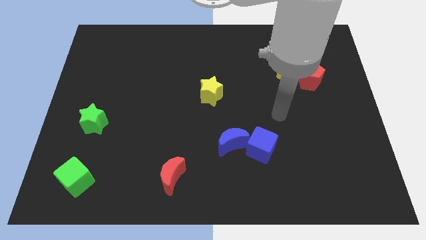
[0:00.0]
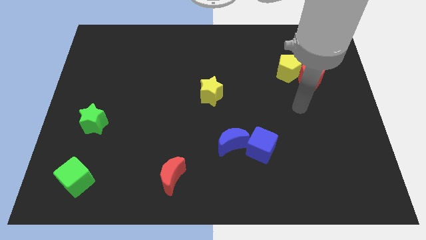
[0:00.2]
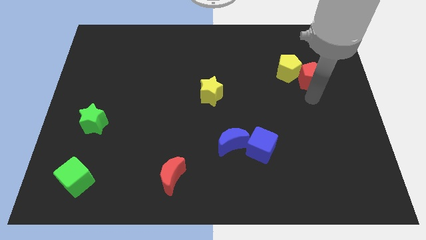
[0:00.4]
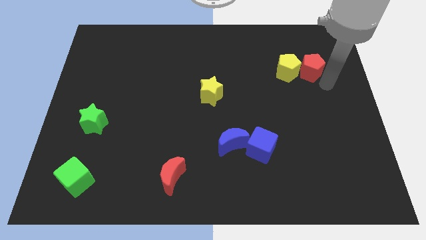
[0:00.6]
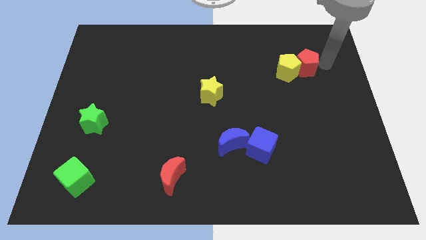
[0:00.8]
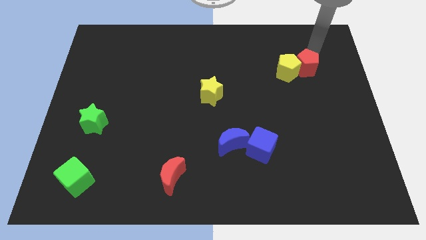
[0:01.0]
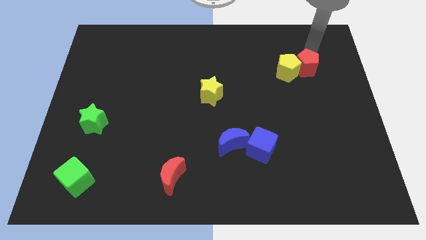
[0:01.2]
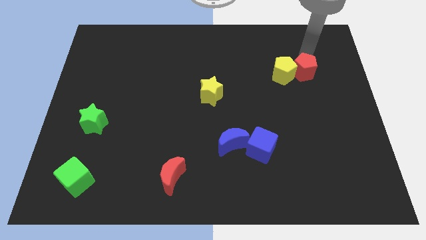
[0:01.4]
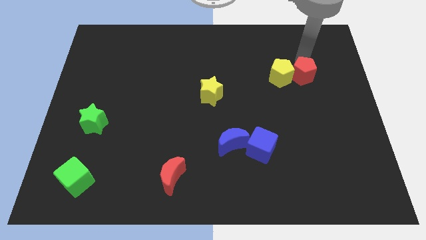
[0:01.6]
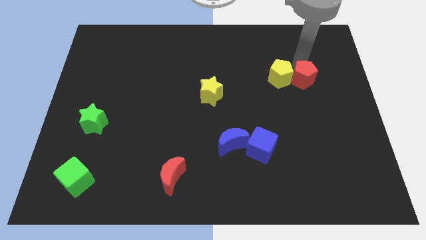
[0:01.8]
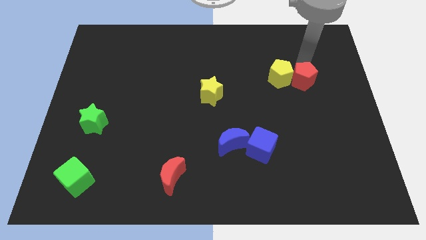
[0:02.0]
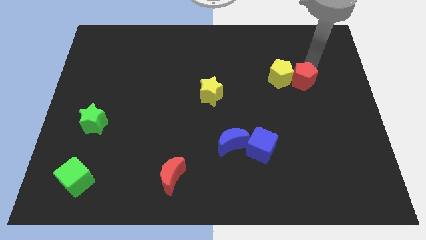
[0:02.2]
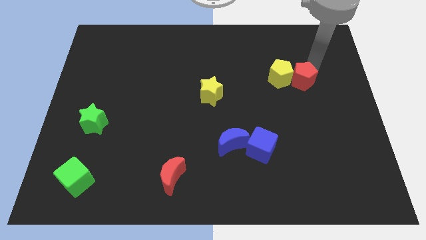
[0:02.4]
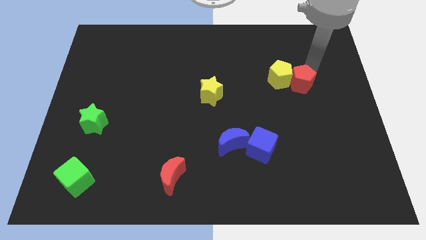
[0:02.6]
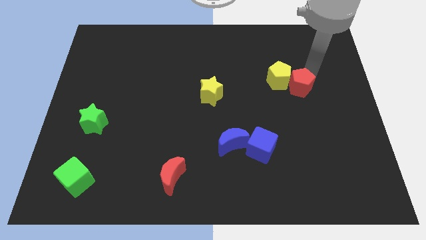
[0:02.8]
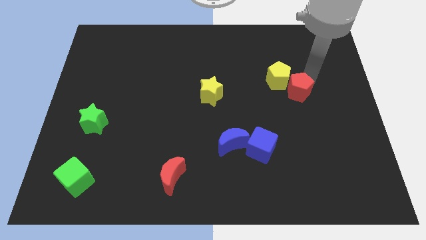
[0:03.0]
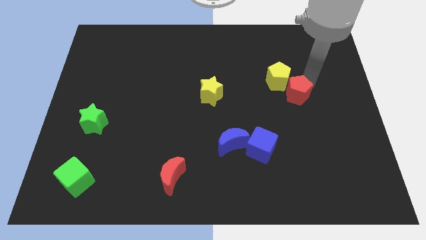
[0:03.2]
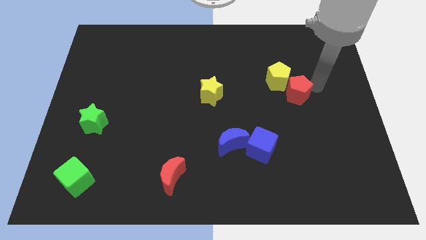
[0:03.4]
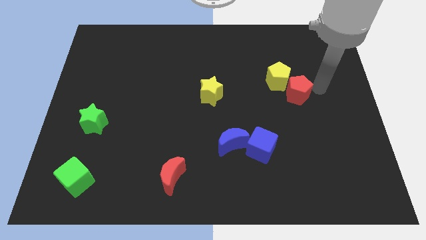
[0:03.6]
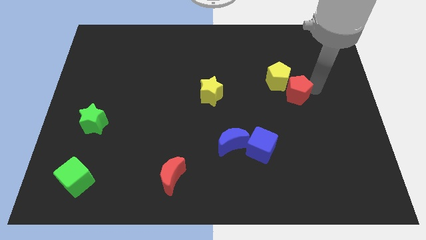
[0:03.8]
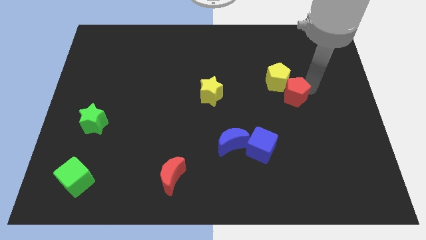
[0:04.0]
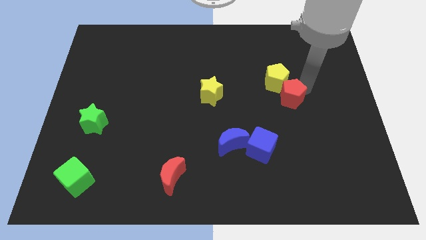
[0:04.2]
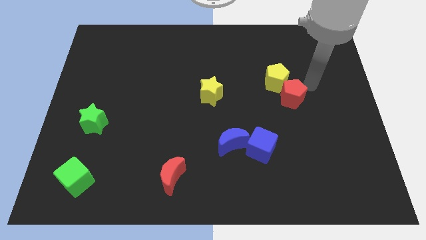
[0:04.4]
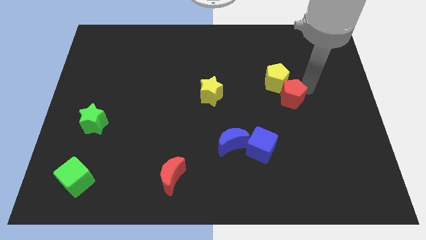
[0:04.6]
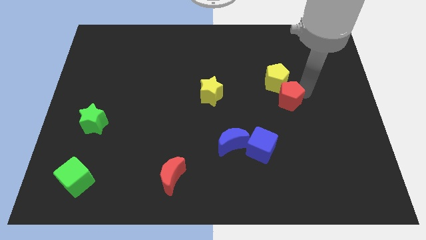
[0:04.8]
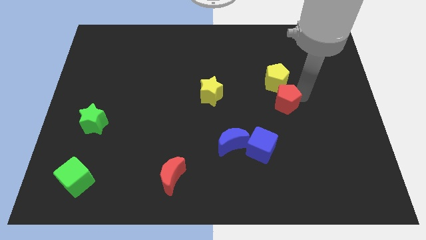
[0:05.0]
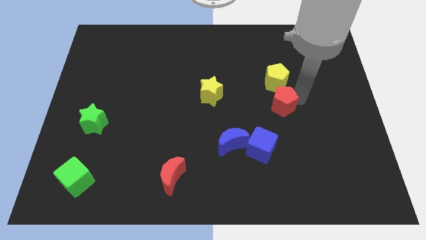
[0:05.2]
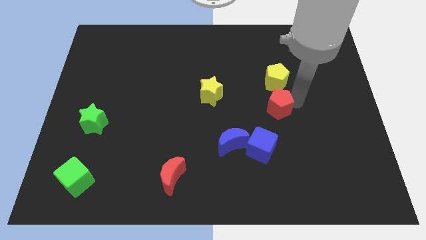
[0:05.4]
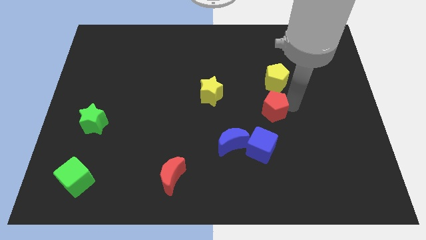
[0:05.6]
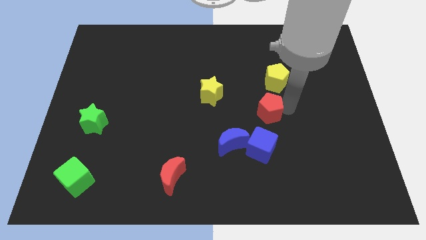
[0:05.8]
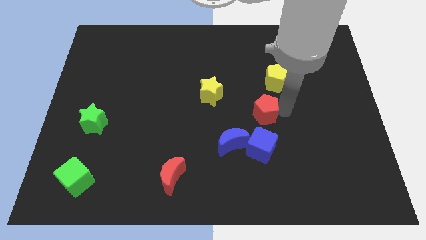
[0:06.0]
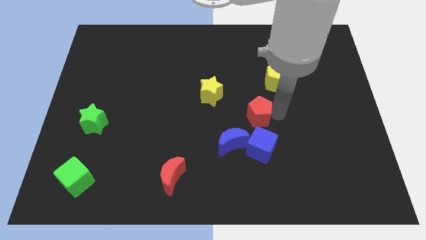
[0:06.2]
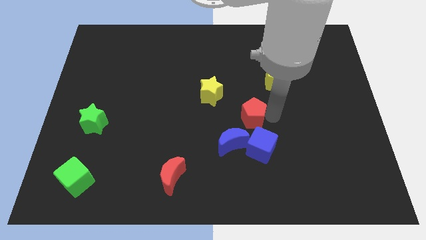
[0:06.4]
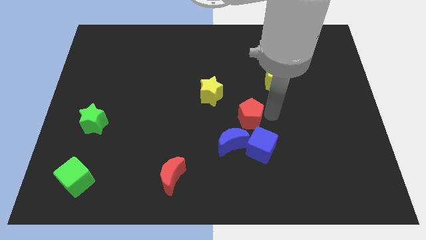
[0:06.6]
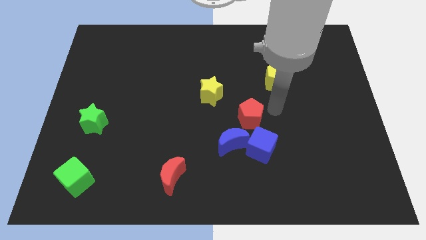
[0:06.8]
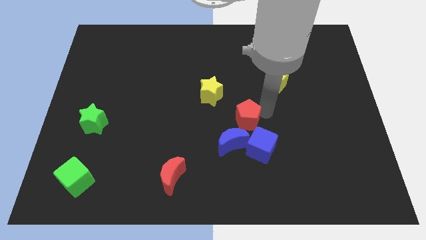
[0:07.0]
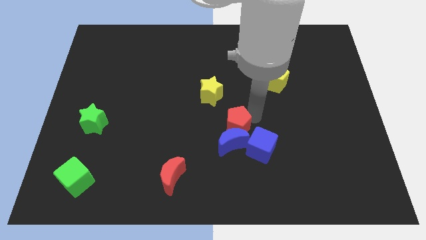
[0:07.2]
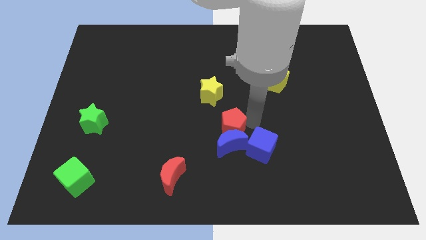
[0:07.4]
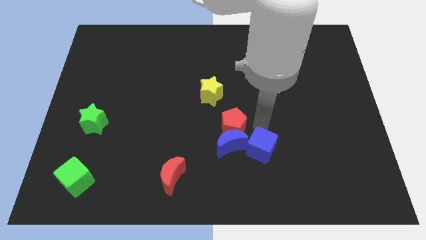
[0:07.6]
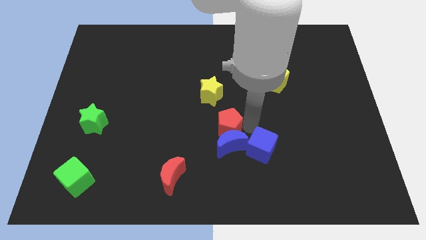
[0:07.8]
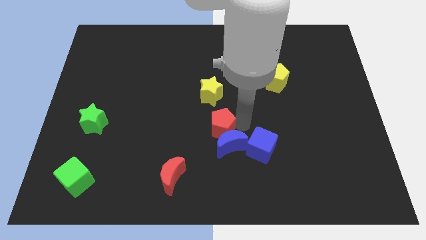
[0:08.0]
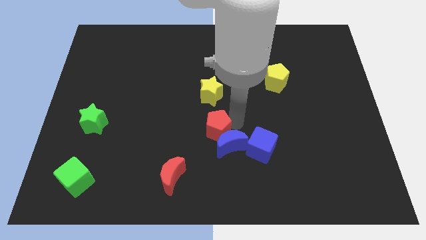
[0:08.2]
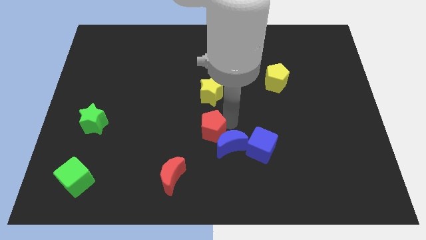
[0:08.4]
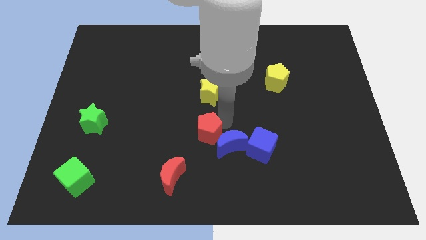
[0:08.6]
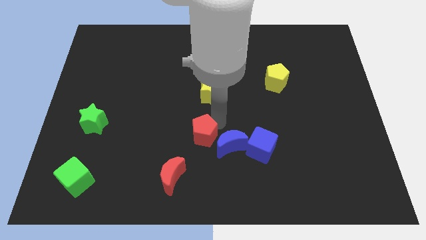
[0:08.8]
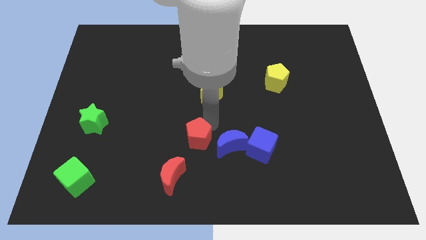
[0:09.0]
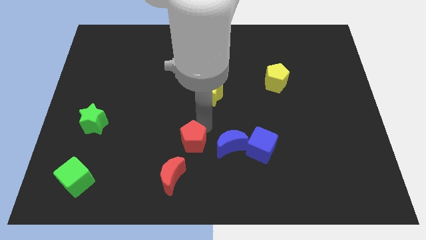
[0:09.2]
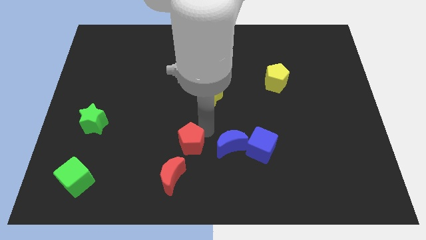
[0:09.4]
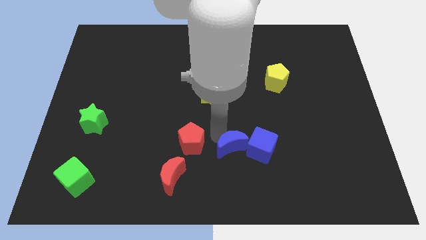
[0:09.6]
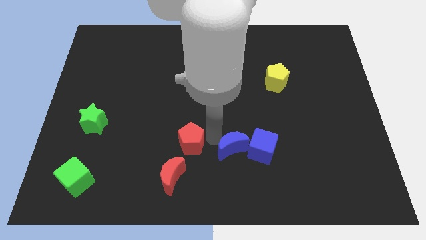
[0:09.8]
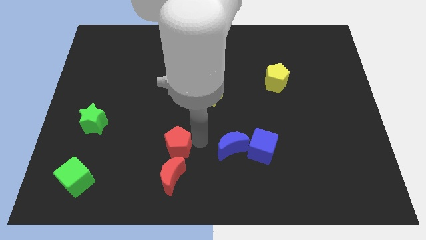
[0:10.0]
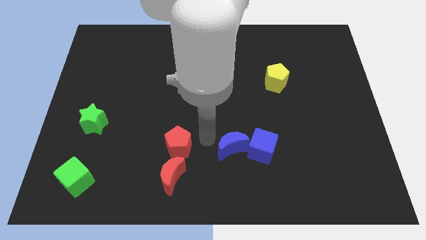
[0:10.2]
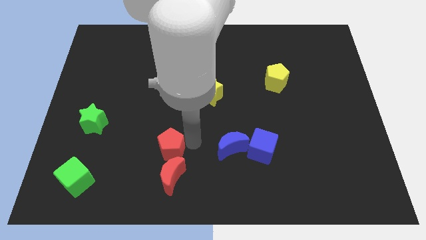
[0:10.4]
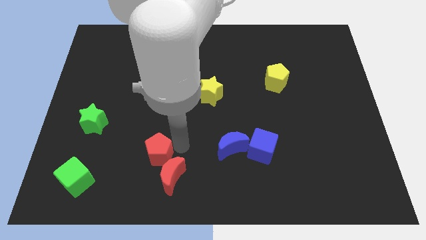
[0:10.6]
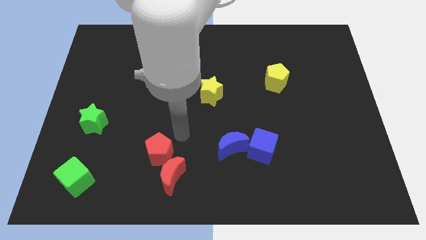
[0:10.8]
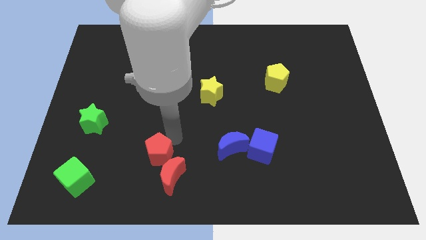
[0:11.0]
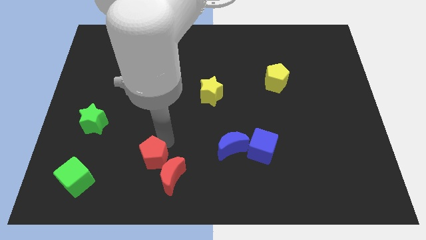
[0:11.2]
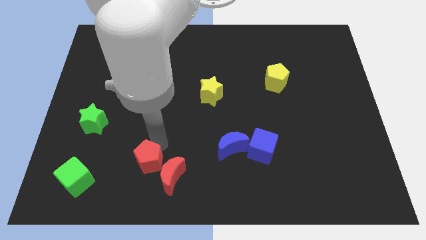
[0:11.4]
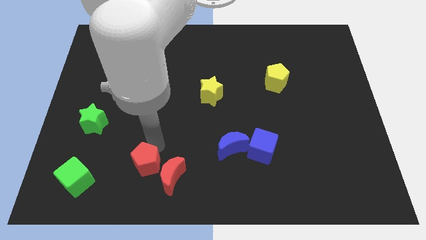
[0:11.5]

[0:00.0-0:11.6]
put the red pentagon to the right side of the green cube

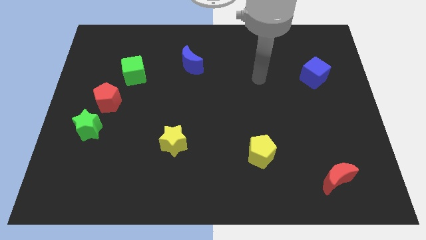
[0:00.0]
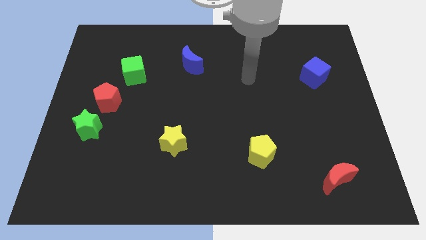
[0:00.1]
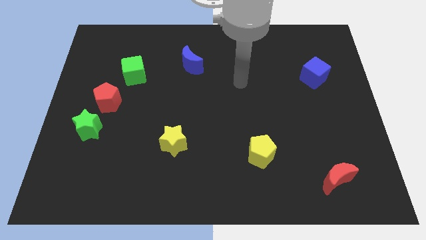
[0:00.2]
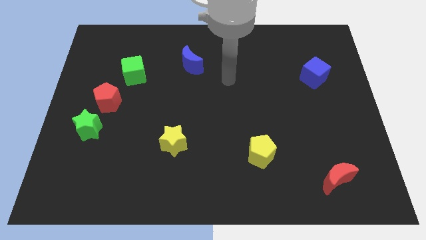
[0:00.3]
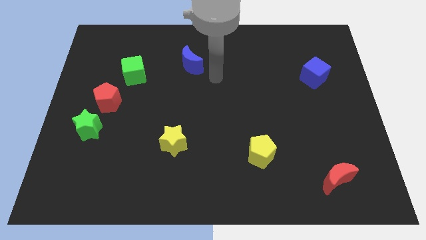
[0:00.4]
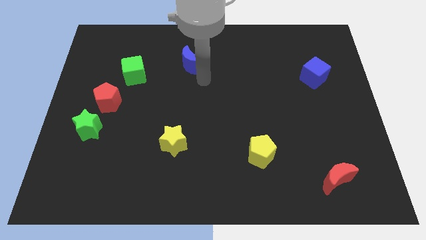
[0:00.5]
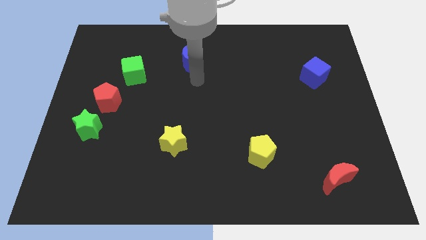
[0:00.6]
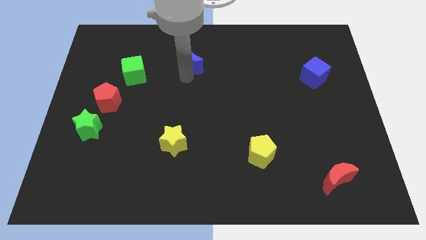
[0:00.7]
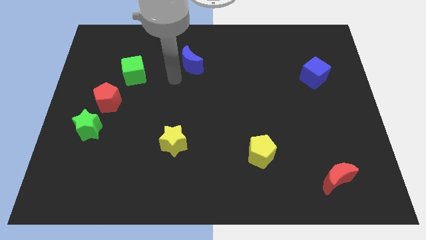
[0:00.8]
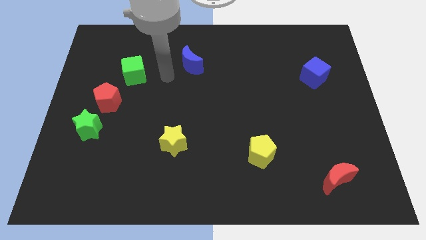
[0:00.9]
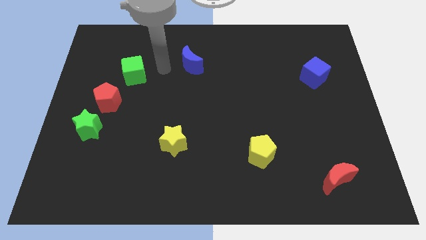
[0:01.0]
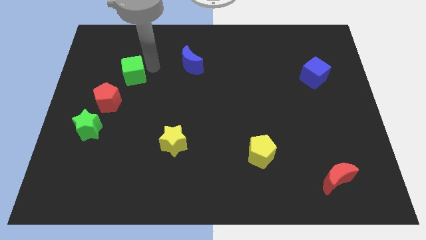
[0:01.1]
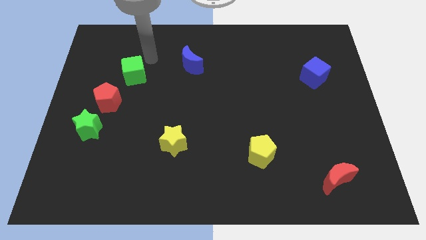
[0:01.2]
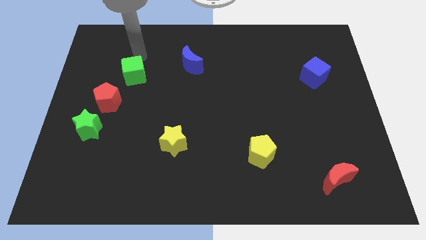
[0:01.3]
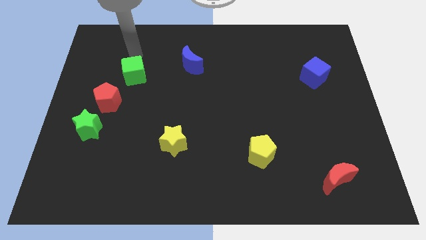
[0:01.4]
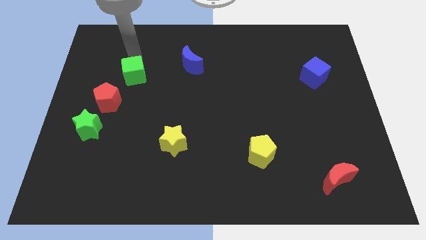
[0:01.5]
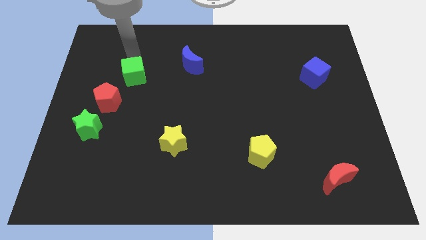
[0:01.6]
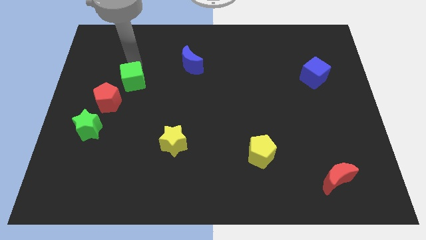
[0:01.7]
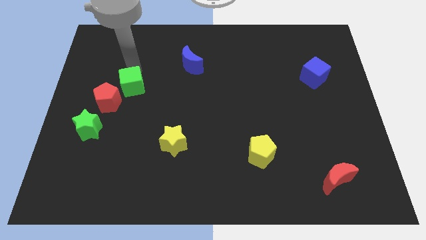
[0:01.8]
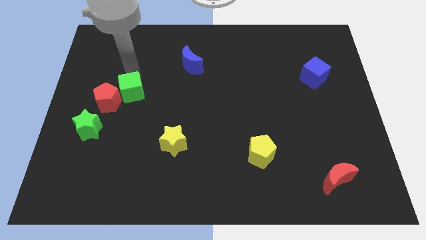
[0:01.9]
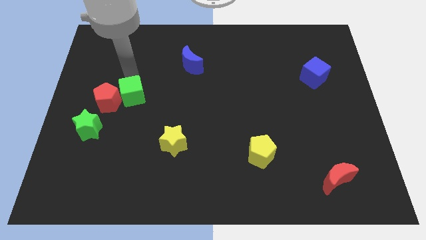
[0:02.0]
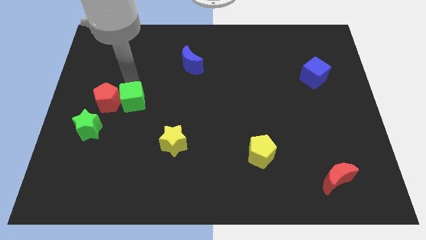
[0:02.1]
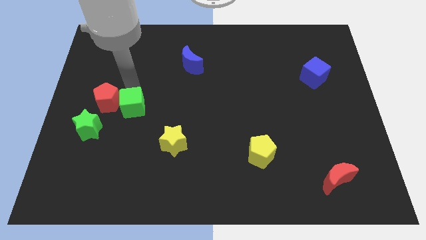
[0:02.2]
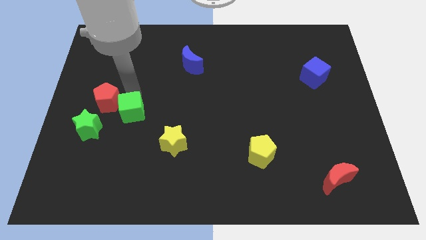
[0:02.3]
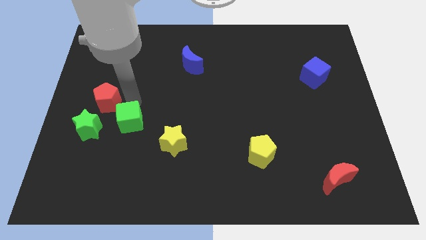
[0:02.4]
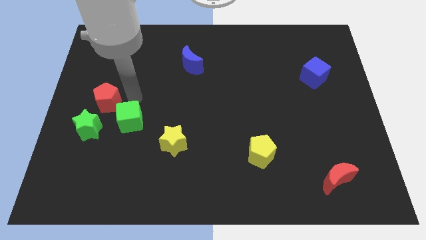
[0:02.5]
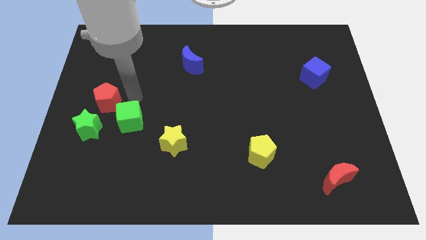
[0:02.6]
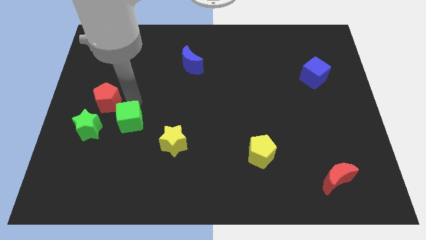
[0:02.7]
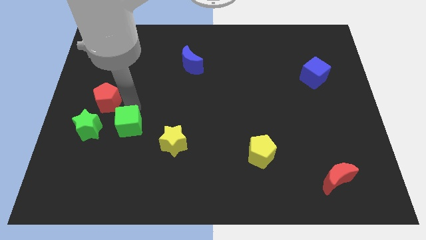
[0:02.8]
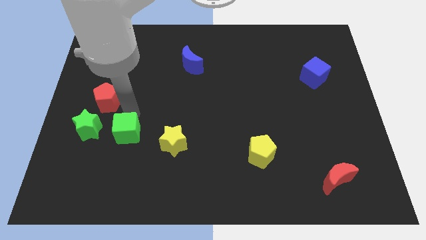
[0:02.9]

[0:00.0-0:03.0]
slide the green cube just left of the yellow star
